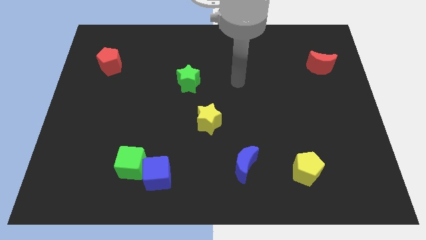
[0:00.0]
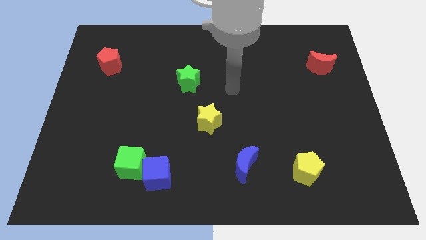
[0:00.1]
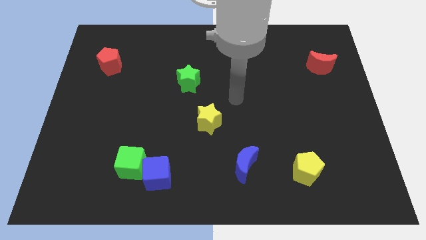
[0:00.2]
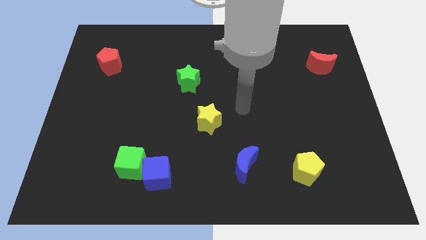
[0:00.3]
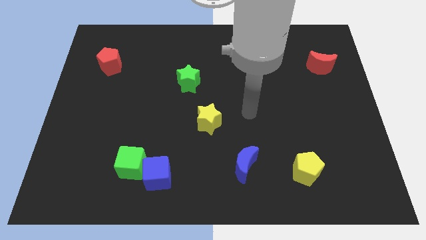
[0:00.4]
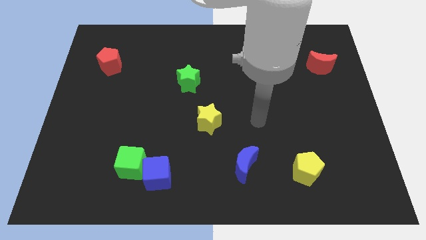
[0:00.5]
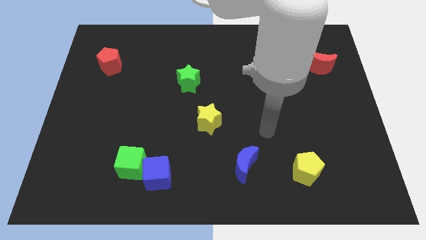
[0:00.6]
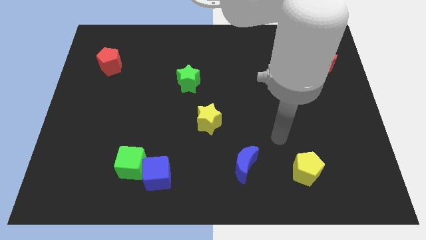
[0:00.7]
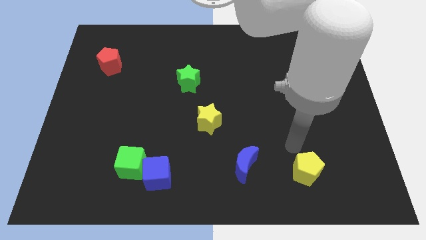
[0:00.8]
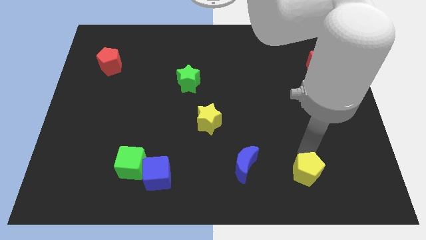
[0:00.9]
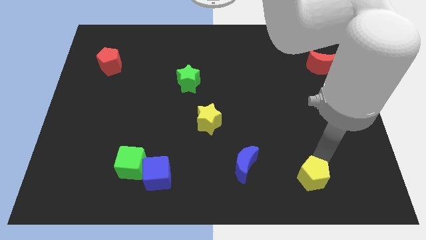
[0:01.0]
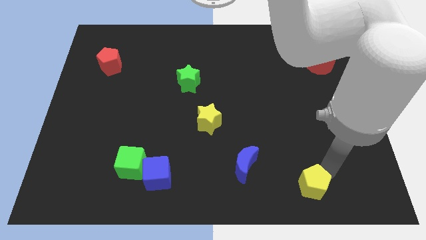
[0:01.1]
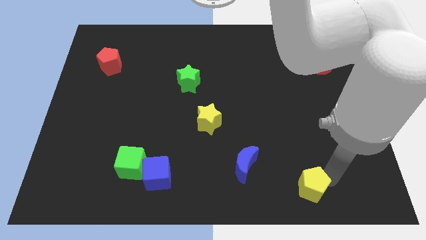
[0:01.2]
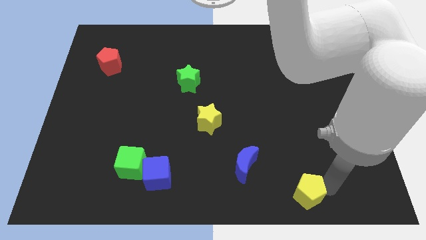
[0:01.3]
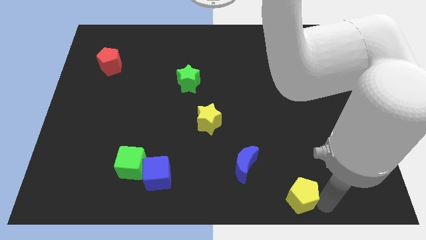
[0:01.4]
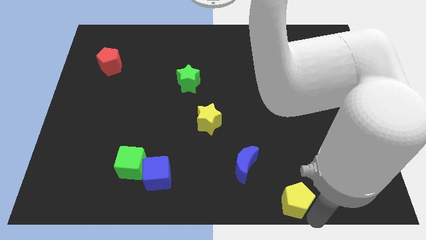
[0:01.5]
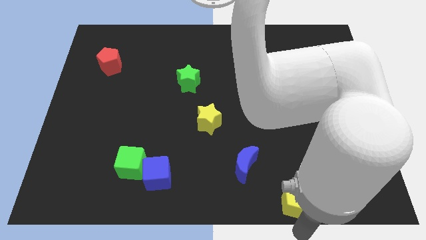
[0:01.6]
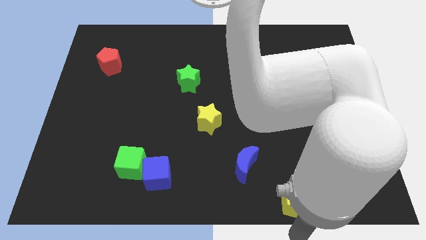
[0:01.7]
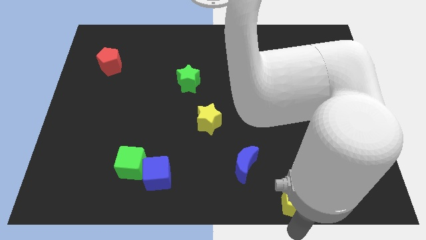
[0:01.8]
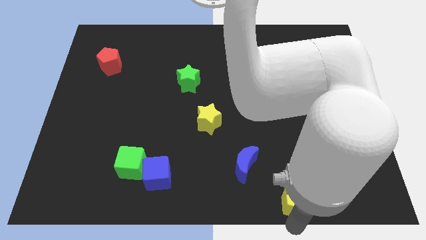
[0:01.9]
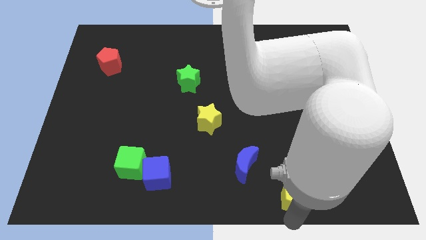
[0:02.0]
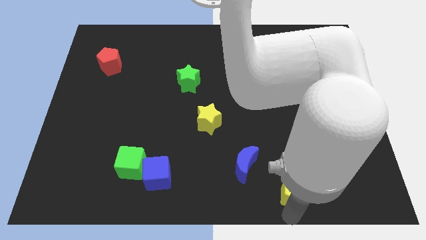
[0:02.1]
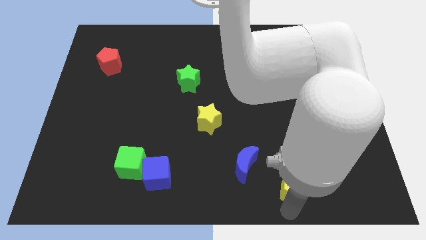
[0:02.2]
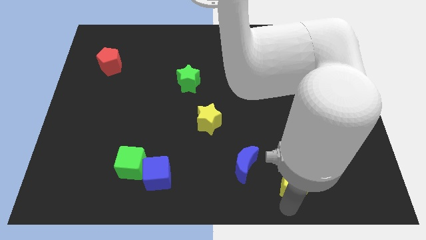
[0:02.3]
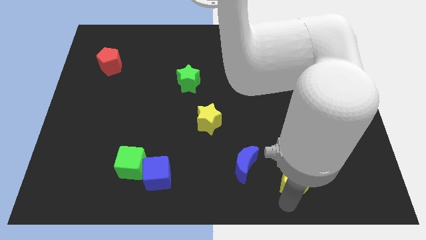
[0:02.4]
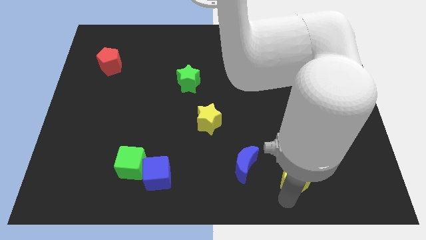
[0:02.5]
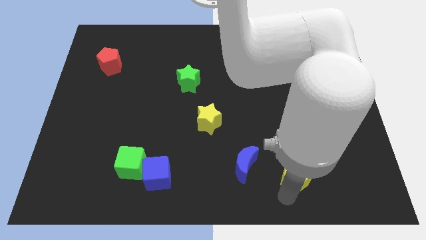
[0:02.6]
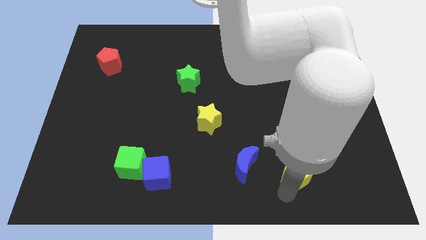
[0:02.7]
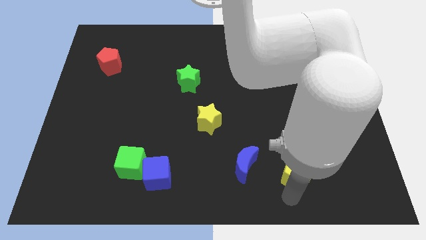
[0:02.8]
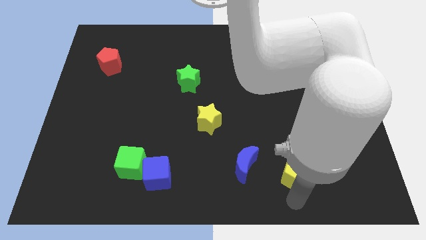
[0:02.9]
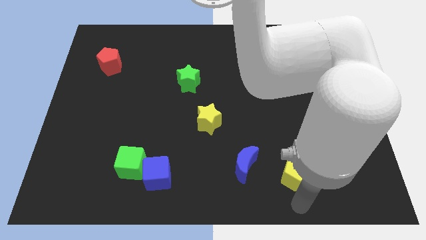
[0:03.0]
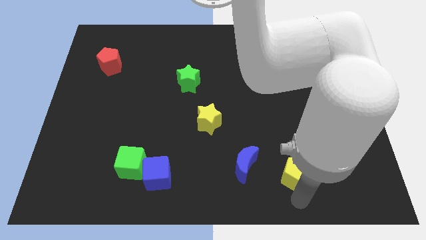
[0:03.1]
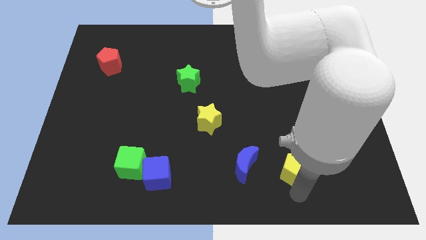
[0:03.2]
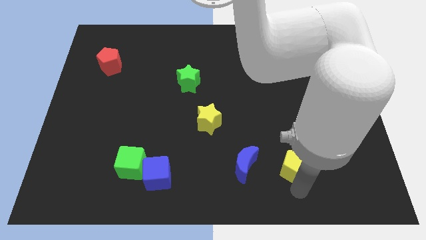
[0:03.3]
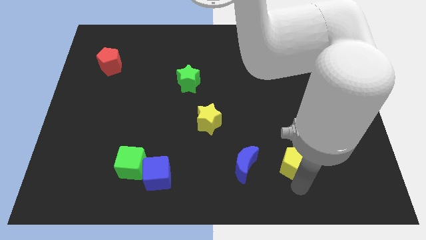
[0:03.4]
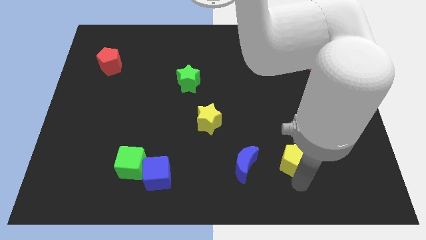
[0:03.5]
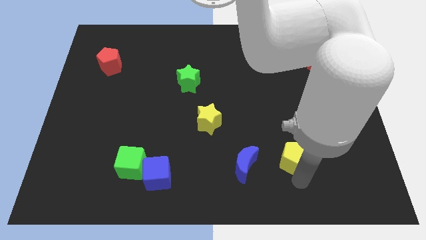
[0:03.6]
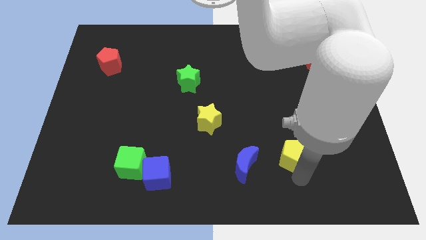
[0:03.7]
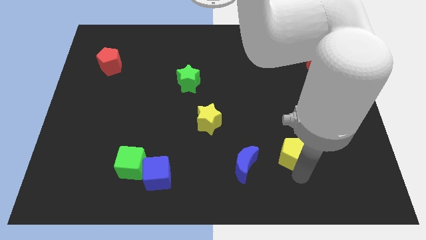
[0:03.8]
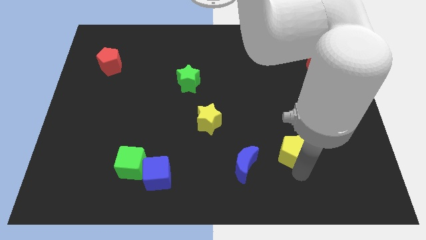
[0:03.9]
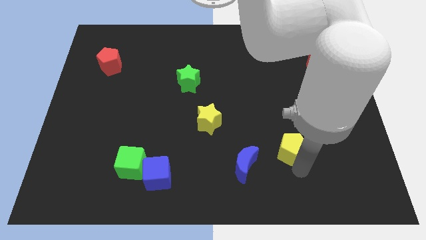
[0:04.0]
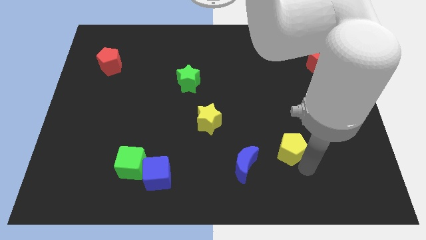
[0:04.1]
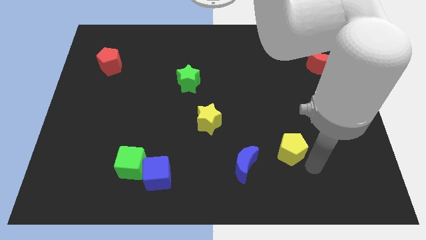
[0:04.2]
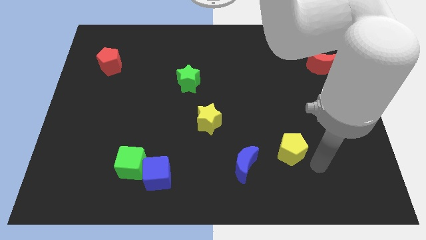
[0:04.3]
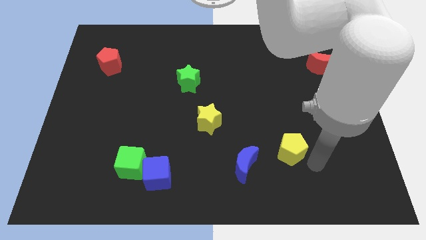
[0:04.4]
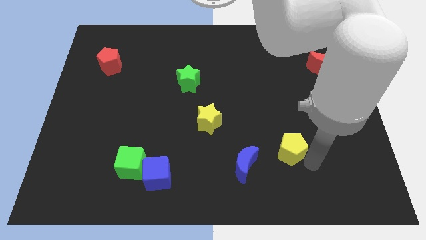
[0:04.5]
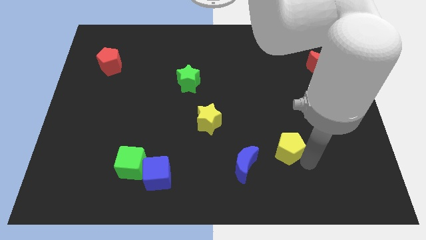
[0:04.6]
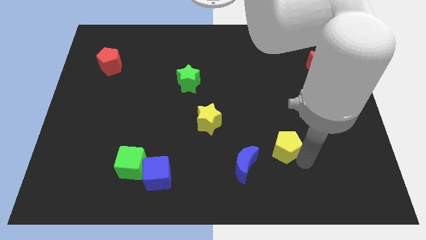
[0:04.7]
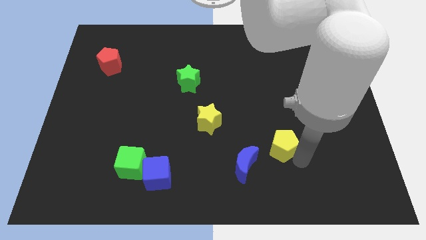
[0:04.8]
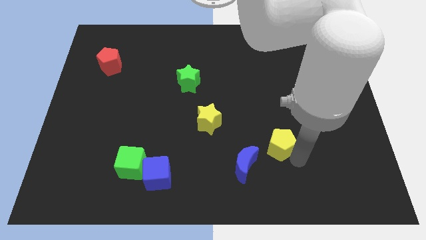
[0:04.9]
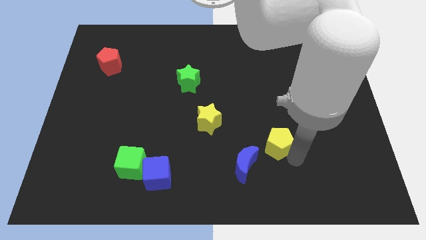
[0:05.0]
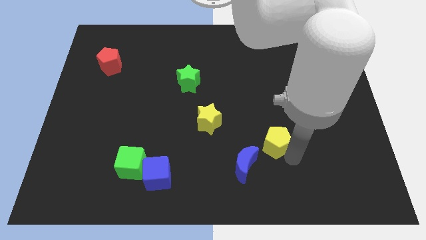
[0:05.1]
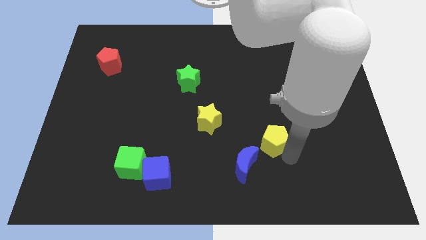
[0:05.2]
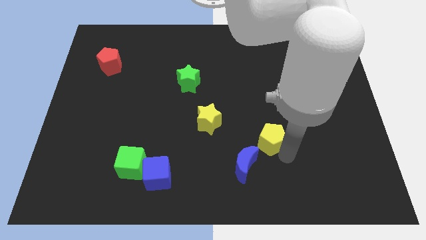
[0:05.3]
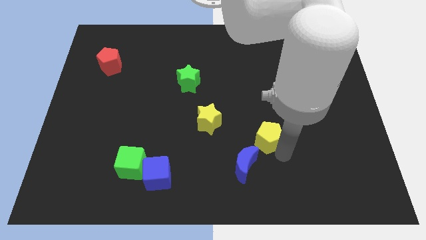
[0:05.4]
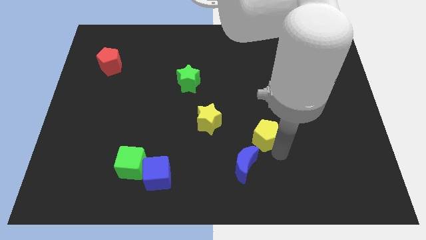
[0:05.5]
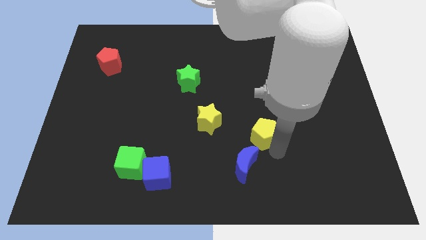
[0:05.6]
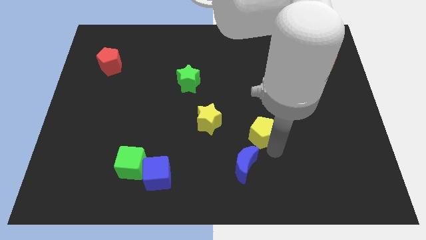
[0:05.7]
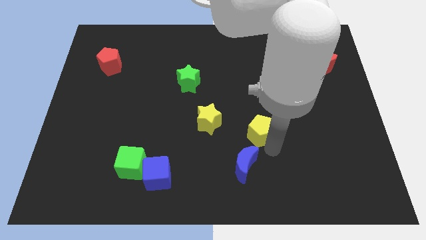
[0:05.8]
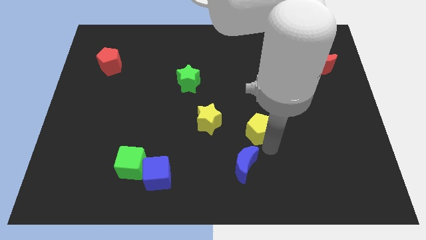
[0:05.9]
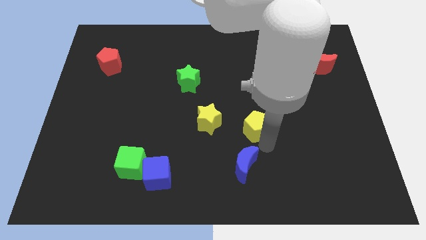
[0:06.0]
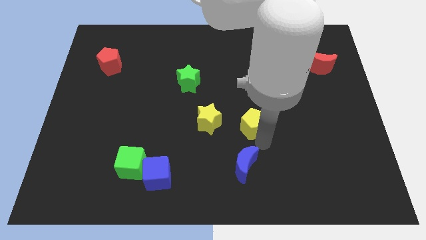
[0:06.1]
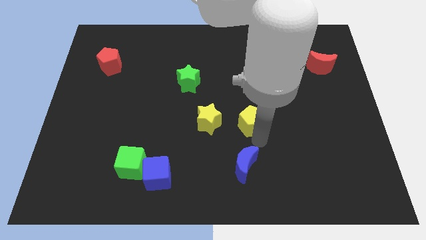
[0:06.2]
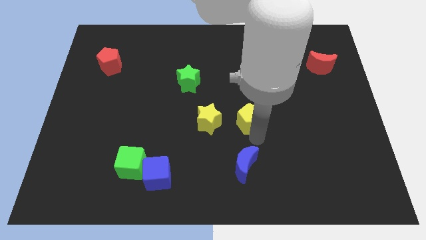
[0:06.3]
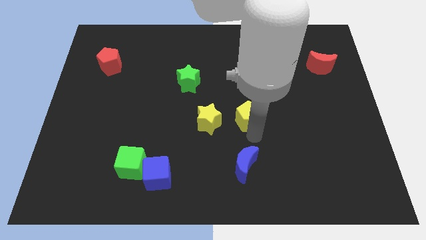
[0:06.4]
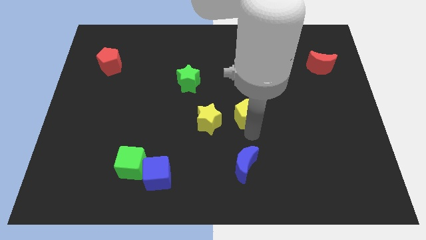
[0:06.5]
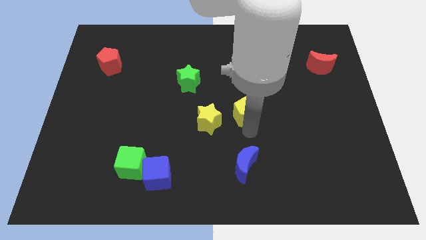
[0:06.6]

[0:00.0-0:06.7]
slide the yellow pentagon to the top right of the yellow star

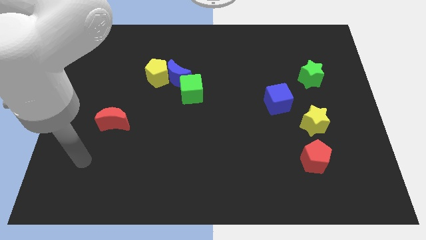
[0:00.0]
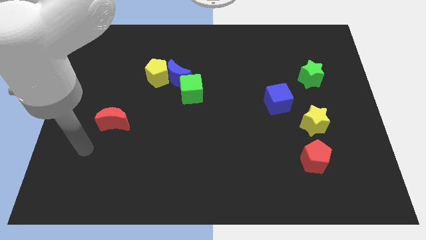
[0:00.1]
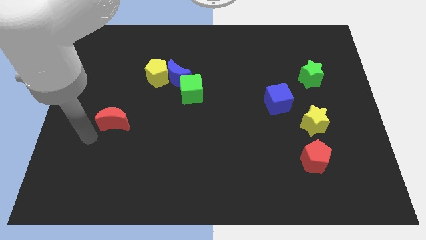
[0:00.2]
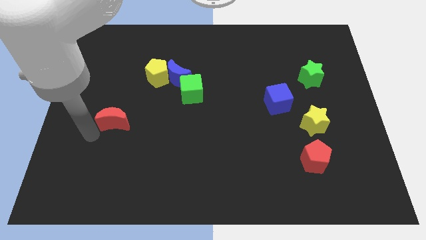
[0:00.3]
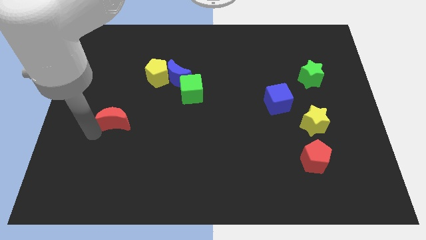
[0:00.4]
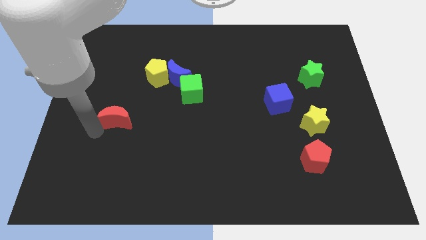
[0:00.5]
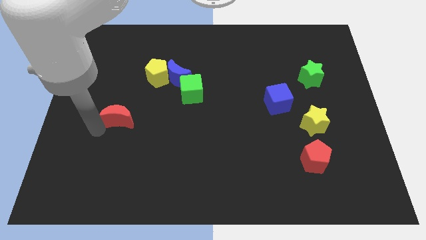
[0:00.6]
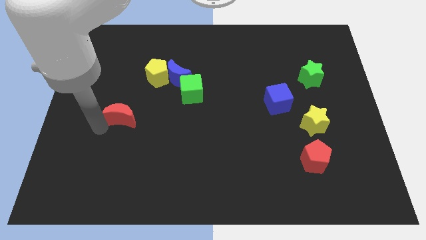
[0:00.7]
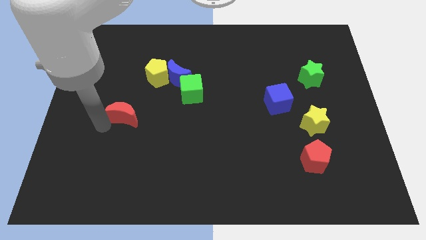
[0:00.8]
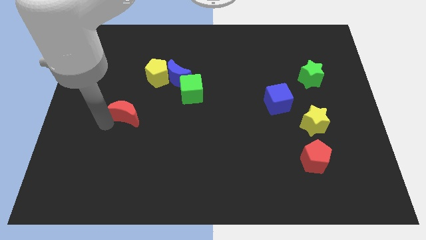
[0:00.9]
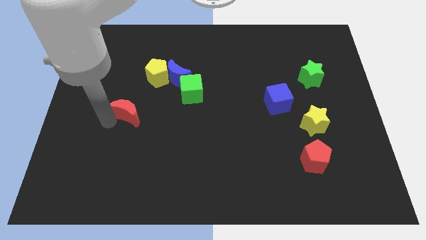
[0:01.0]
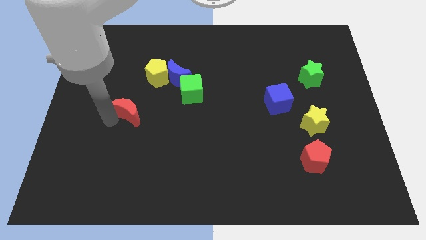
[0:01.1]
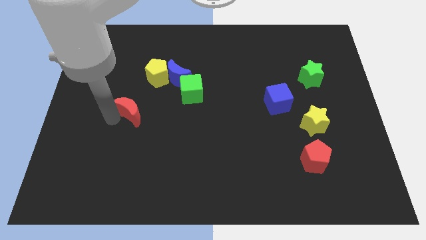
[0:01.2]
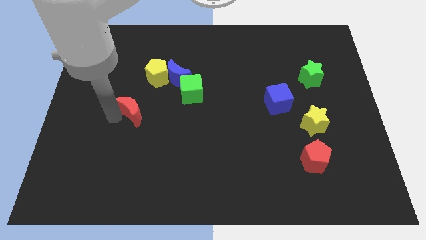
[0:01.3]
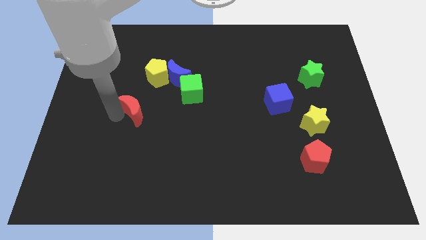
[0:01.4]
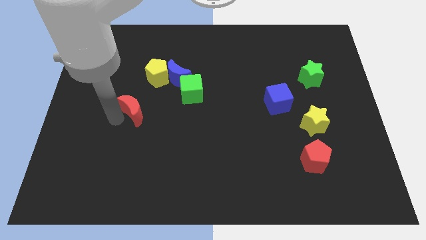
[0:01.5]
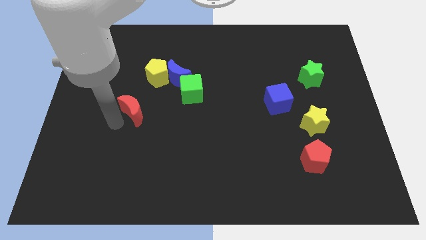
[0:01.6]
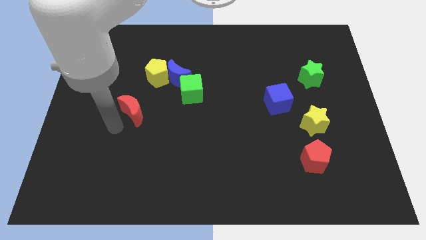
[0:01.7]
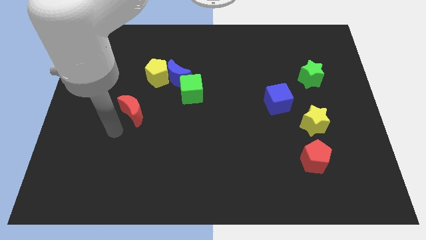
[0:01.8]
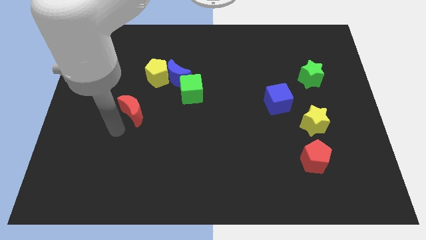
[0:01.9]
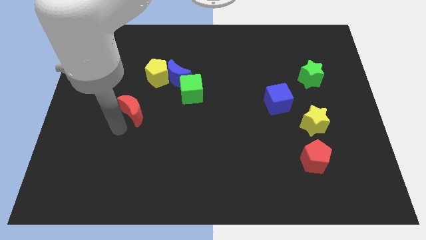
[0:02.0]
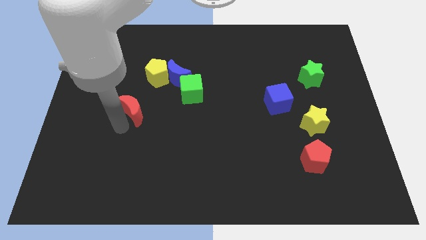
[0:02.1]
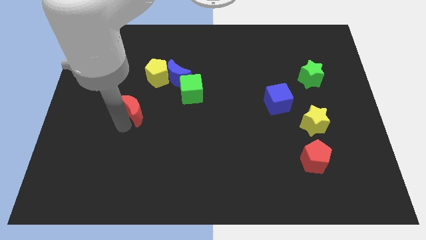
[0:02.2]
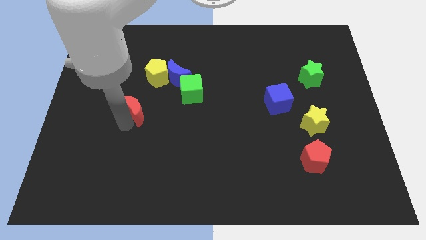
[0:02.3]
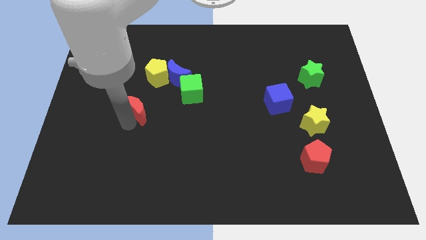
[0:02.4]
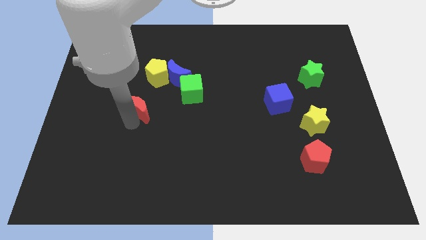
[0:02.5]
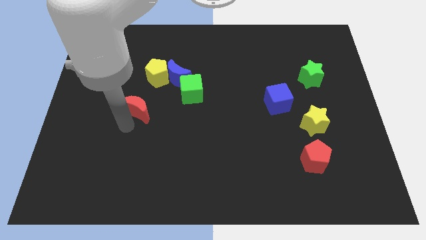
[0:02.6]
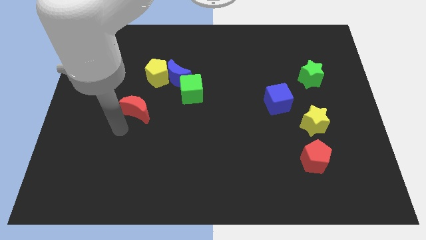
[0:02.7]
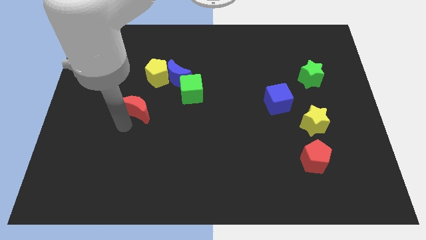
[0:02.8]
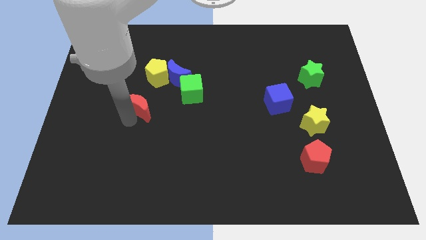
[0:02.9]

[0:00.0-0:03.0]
push the red moon to the bottom left of the blue moon
